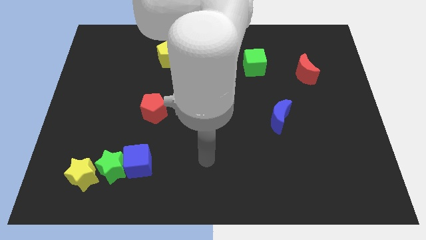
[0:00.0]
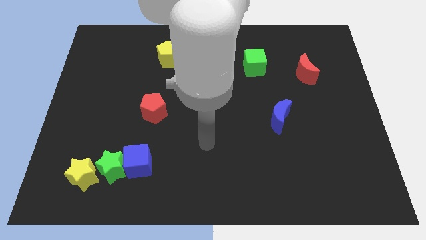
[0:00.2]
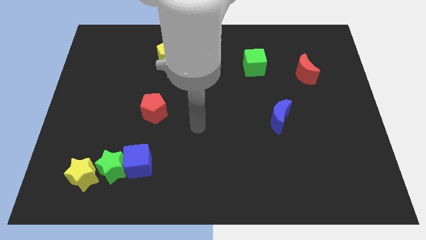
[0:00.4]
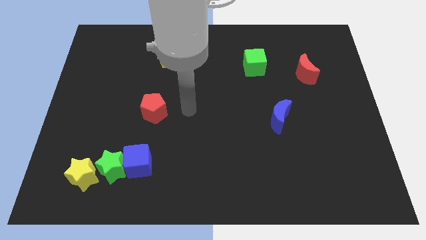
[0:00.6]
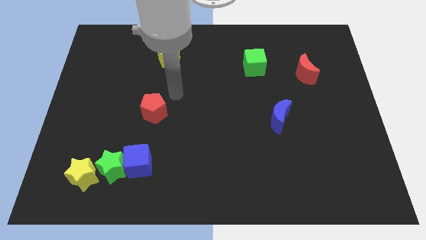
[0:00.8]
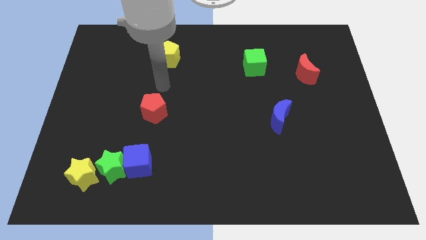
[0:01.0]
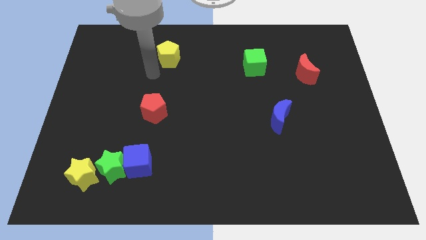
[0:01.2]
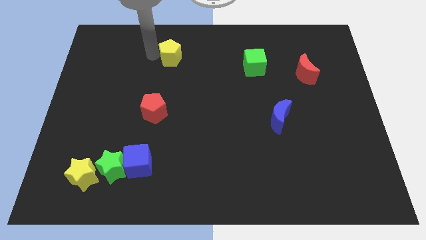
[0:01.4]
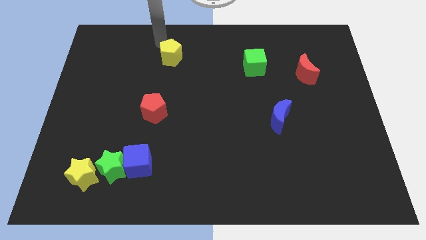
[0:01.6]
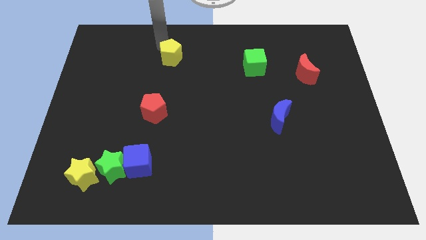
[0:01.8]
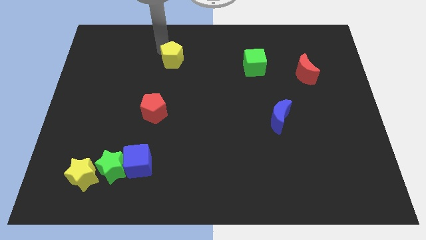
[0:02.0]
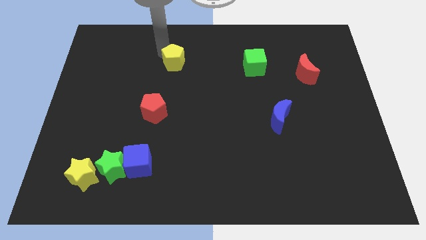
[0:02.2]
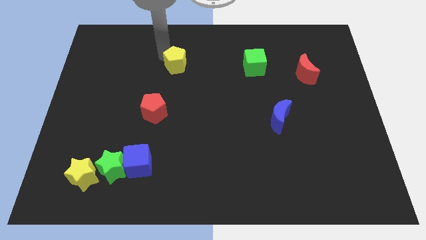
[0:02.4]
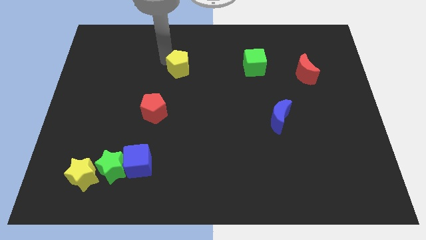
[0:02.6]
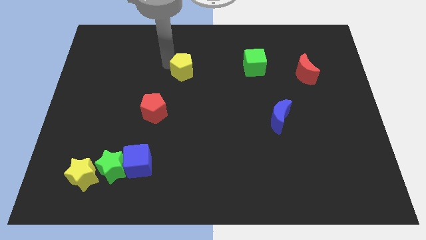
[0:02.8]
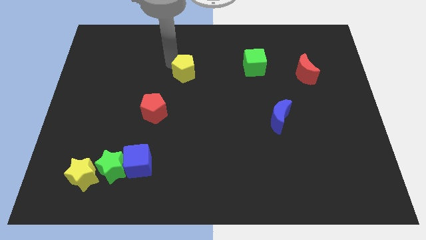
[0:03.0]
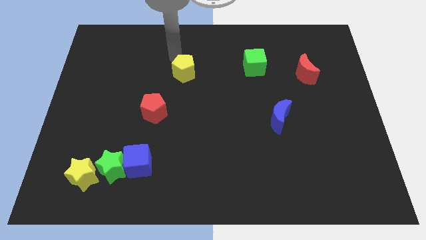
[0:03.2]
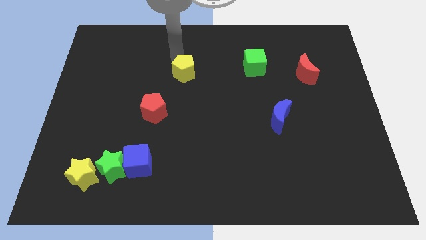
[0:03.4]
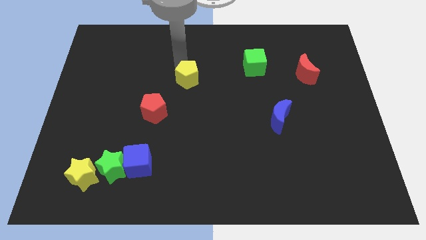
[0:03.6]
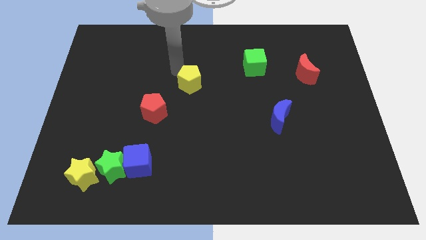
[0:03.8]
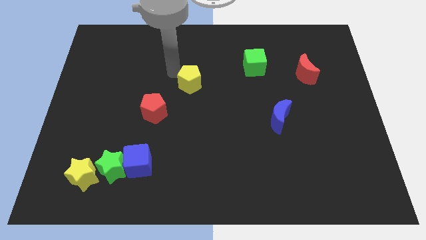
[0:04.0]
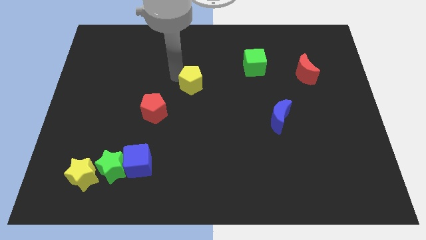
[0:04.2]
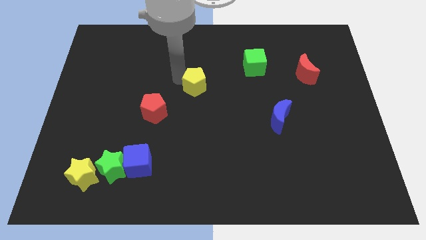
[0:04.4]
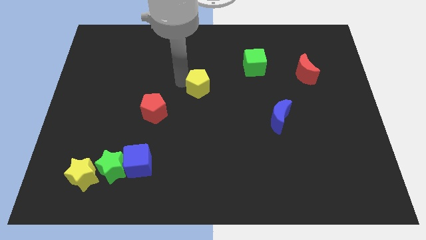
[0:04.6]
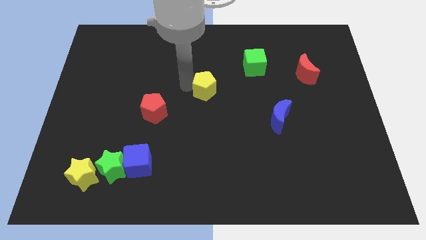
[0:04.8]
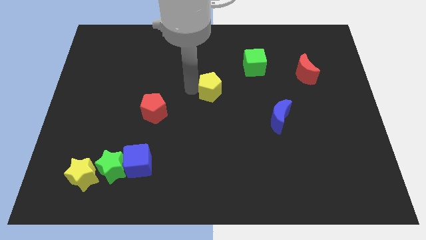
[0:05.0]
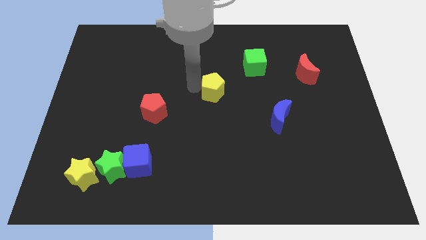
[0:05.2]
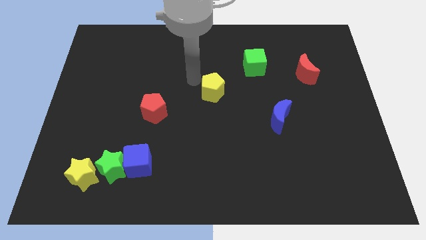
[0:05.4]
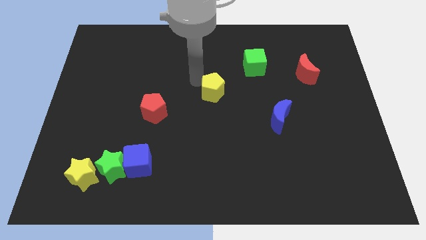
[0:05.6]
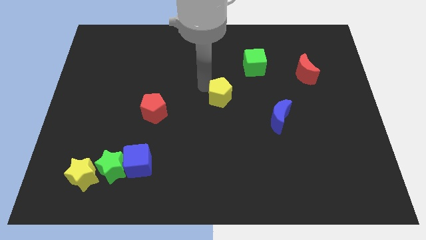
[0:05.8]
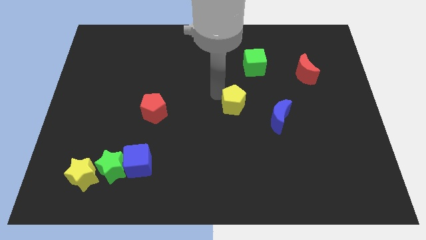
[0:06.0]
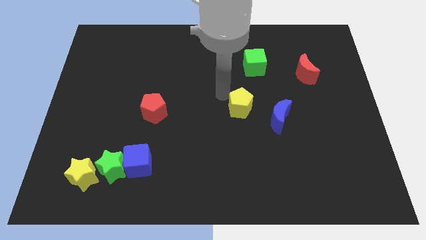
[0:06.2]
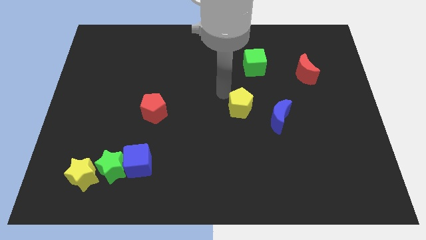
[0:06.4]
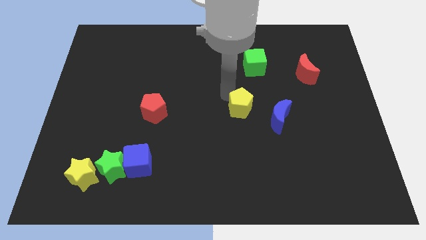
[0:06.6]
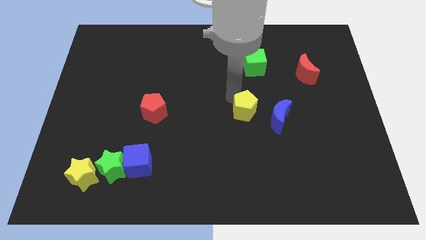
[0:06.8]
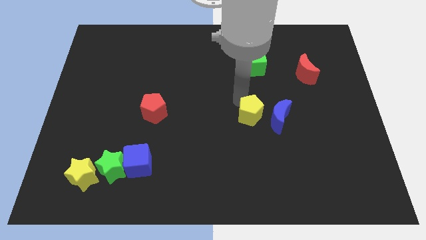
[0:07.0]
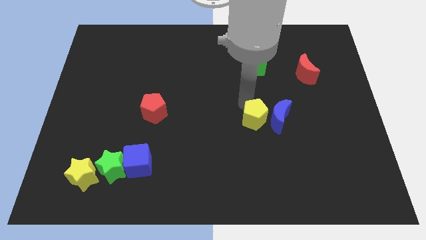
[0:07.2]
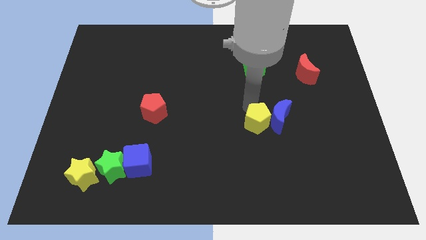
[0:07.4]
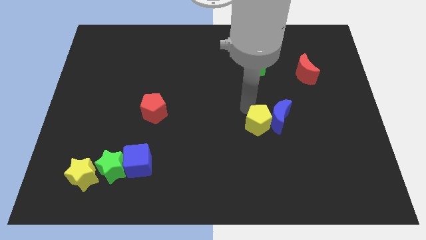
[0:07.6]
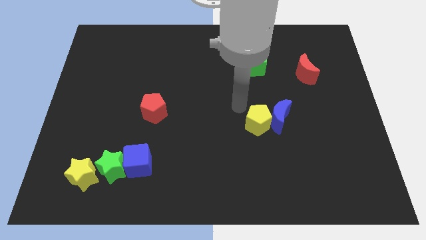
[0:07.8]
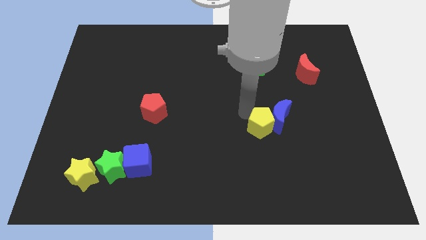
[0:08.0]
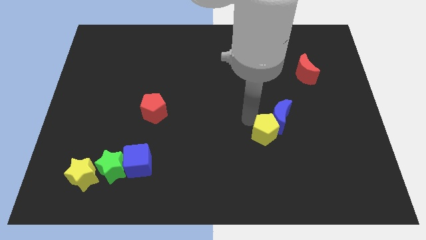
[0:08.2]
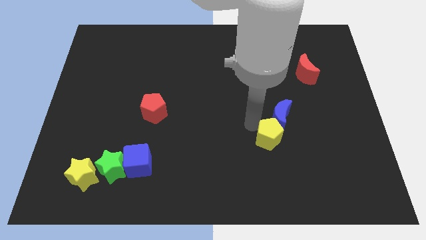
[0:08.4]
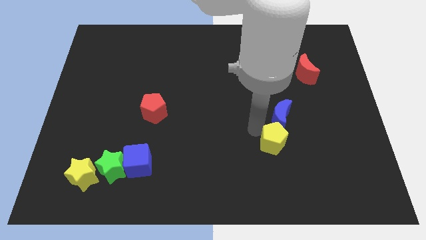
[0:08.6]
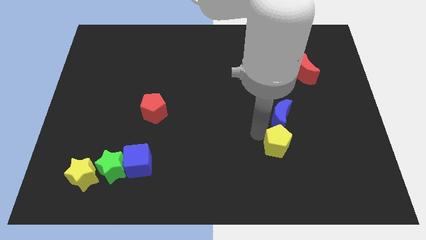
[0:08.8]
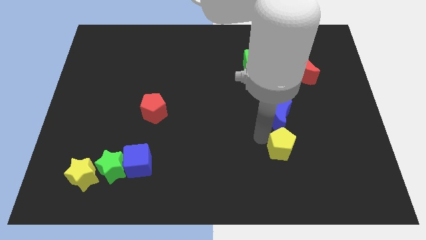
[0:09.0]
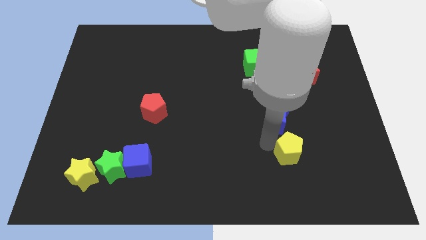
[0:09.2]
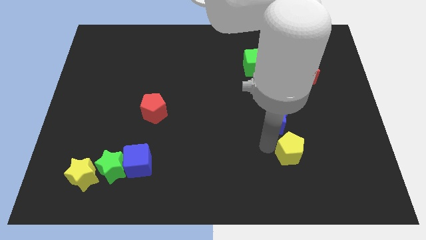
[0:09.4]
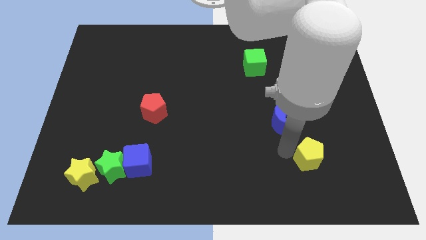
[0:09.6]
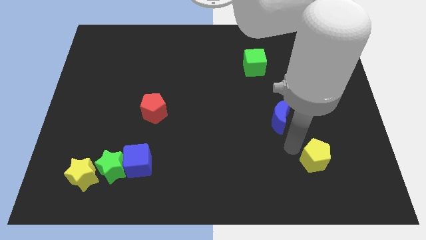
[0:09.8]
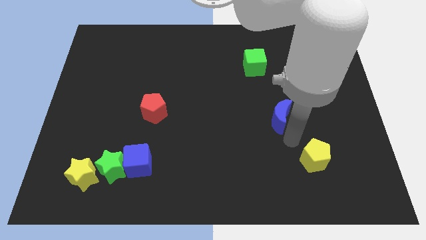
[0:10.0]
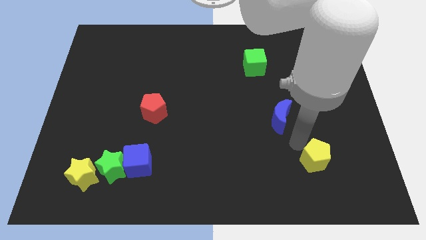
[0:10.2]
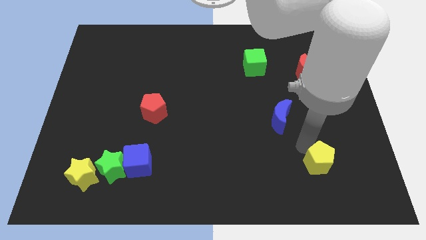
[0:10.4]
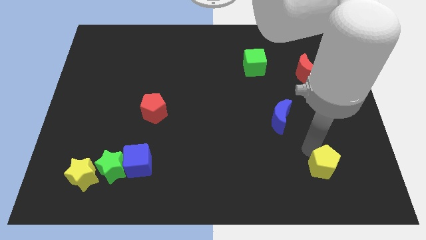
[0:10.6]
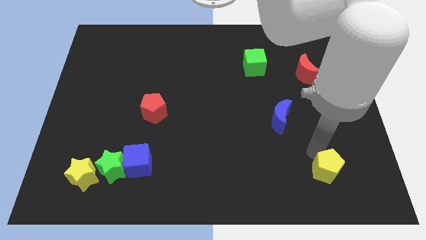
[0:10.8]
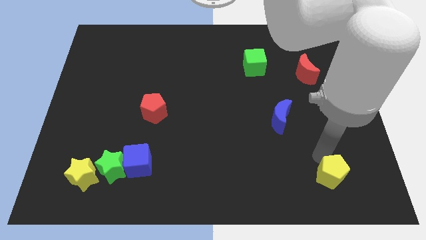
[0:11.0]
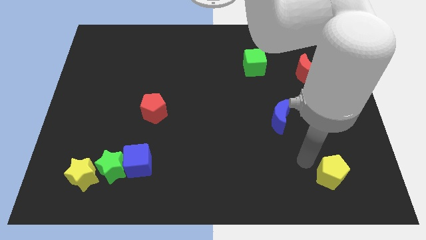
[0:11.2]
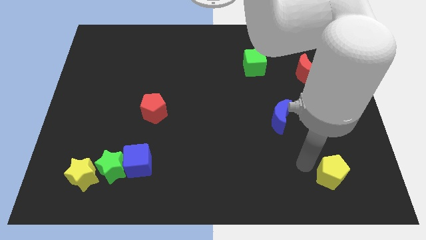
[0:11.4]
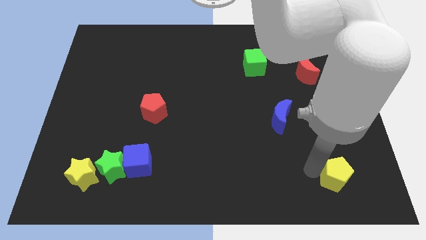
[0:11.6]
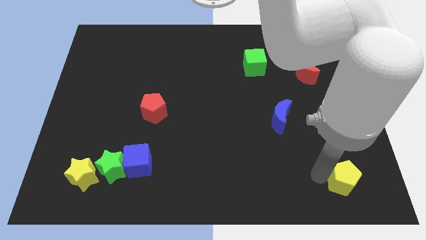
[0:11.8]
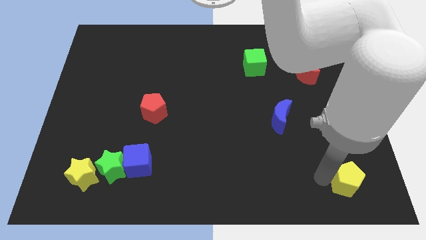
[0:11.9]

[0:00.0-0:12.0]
push the yellow pentagon to the bottom right

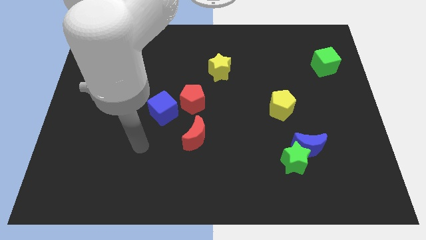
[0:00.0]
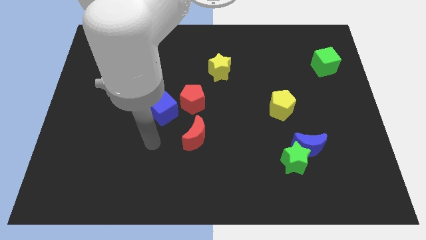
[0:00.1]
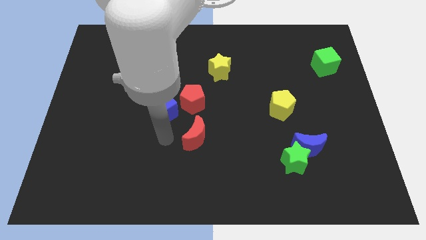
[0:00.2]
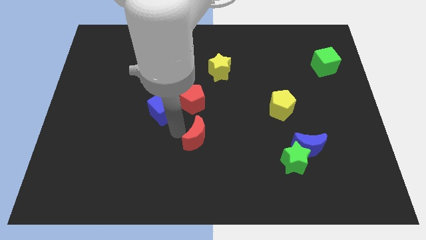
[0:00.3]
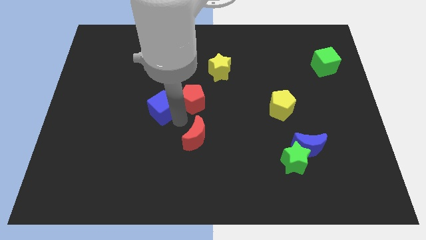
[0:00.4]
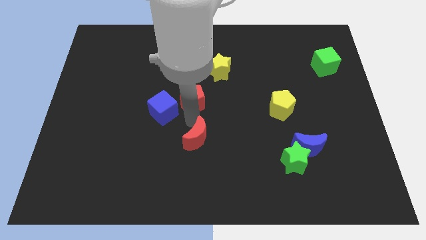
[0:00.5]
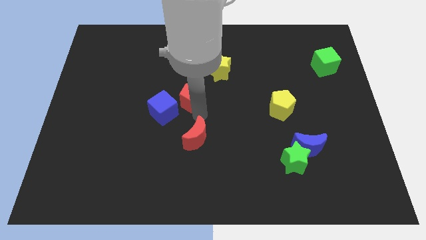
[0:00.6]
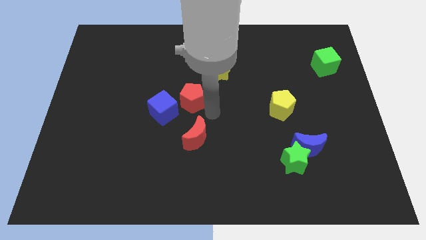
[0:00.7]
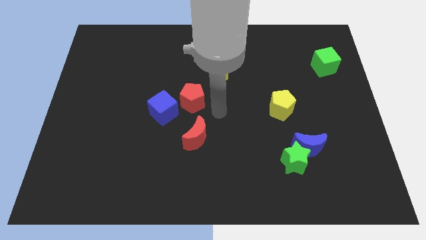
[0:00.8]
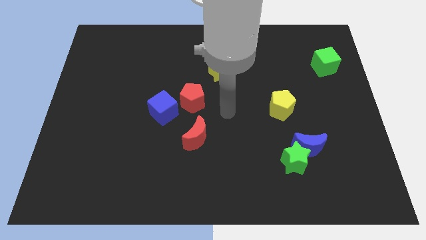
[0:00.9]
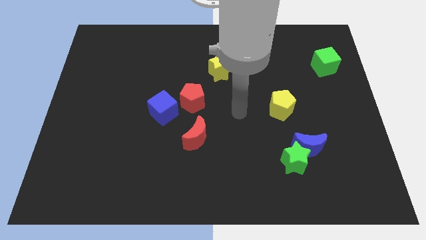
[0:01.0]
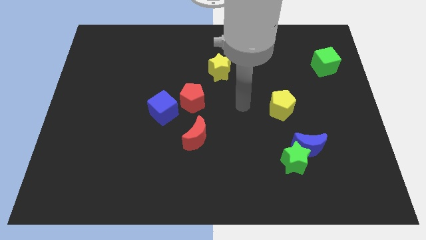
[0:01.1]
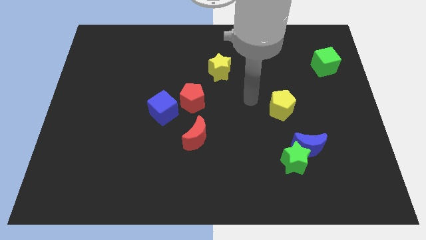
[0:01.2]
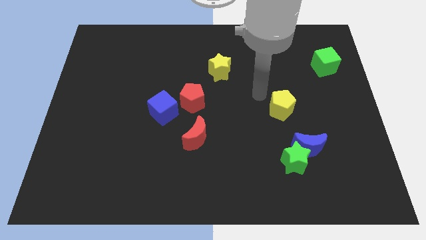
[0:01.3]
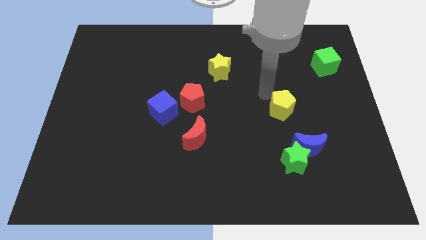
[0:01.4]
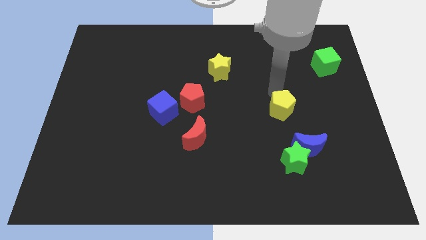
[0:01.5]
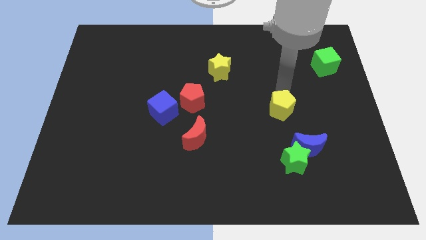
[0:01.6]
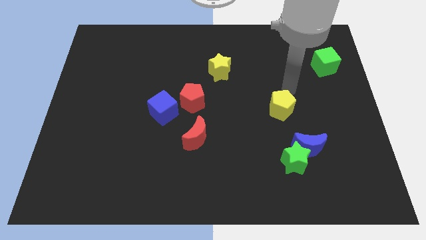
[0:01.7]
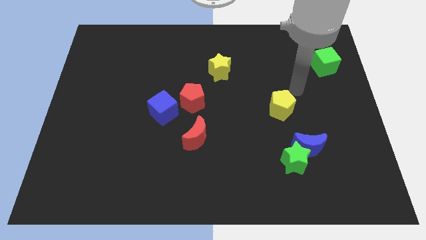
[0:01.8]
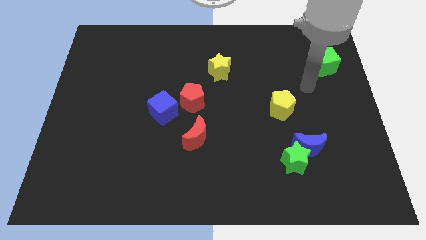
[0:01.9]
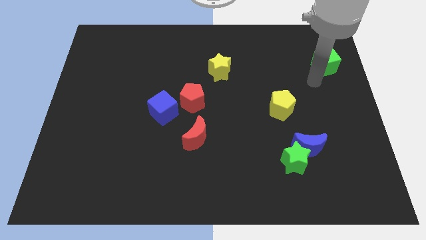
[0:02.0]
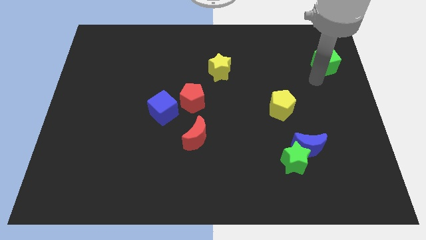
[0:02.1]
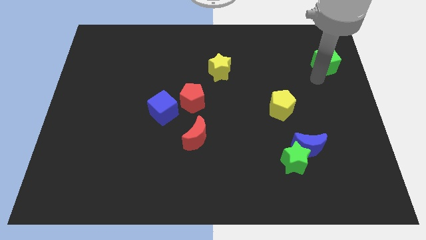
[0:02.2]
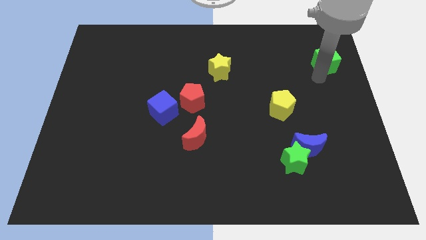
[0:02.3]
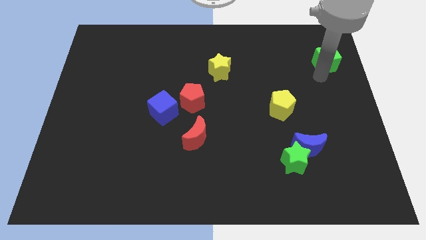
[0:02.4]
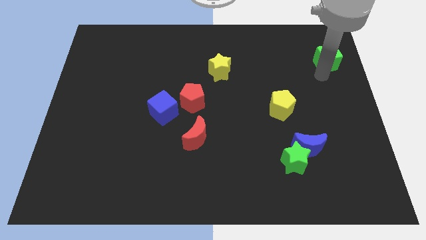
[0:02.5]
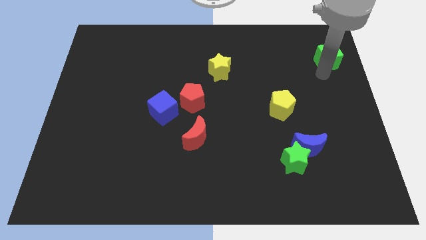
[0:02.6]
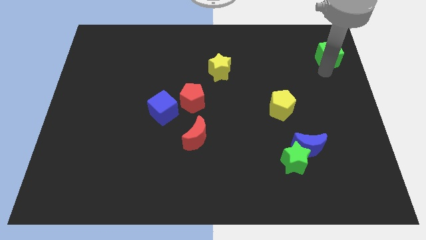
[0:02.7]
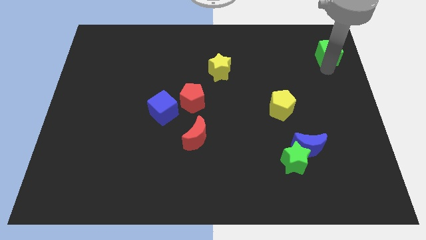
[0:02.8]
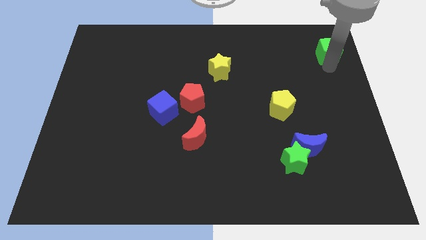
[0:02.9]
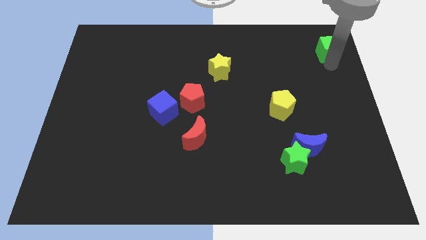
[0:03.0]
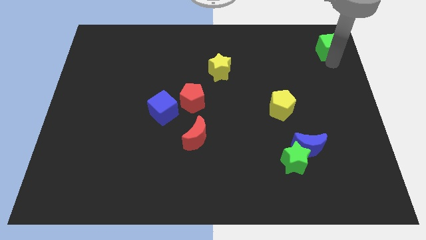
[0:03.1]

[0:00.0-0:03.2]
slide the green cube to the top right of the board
